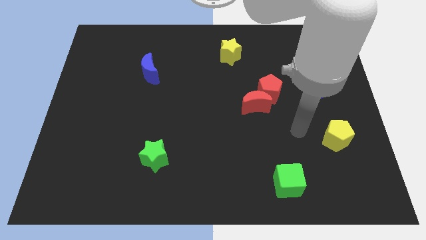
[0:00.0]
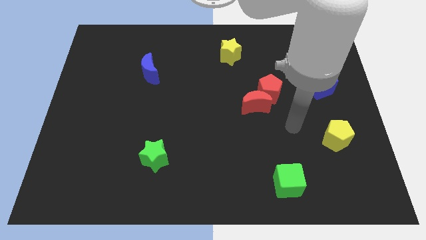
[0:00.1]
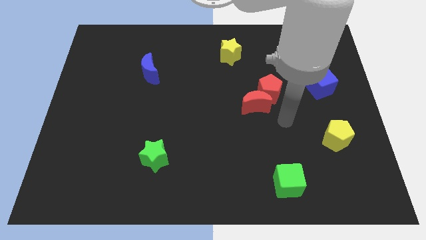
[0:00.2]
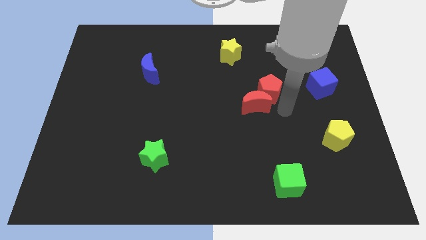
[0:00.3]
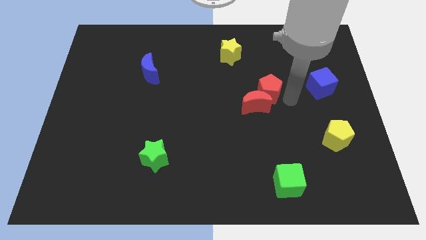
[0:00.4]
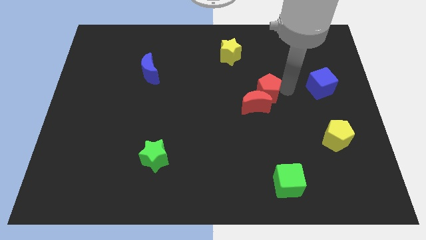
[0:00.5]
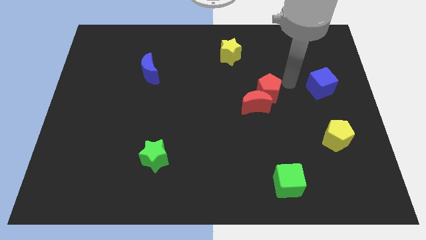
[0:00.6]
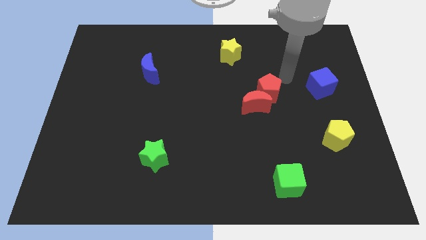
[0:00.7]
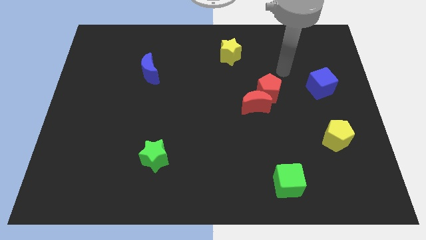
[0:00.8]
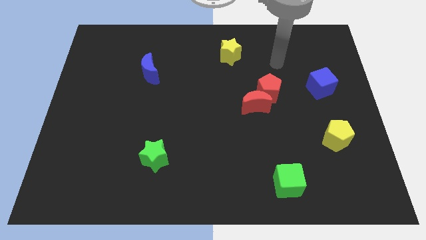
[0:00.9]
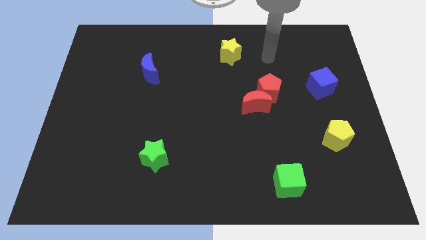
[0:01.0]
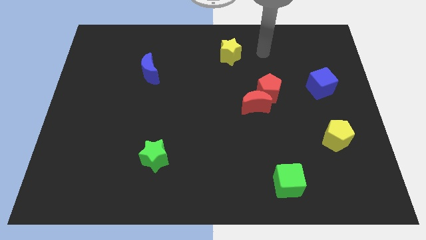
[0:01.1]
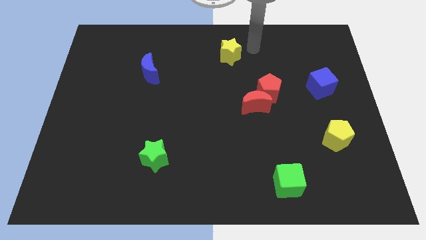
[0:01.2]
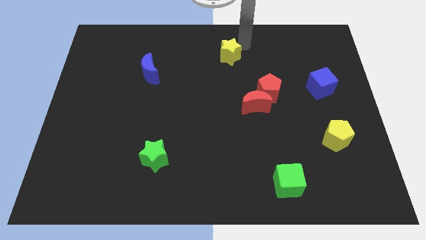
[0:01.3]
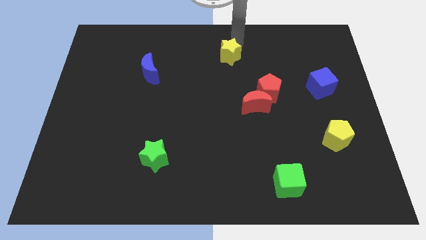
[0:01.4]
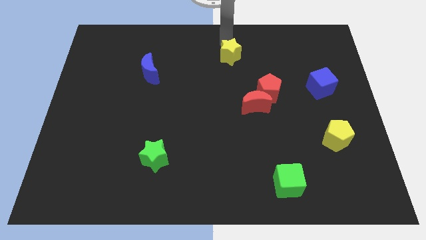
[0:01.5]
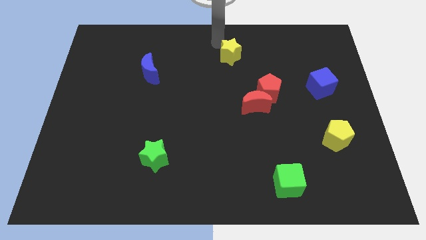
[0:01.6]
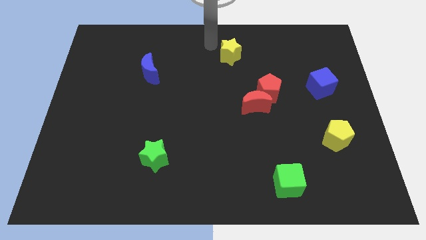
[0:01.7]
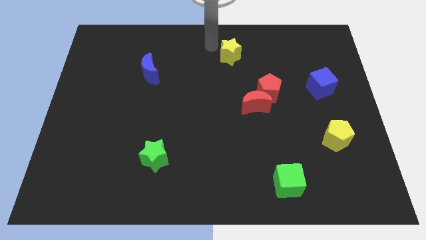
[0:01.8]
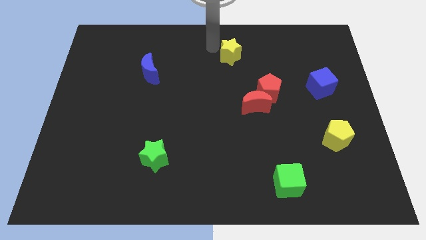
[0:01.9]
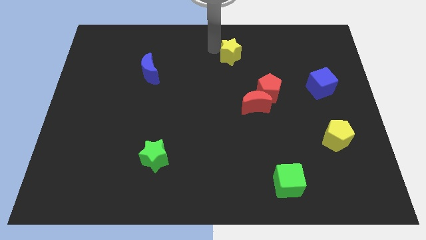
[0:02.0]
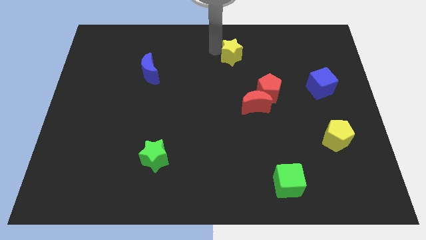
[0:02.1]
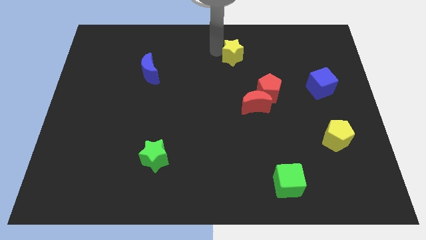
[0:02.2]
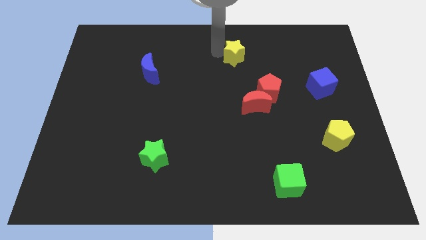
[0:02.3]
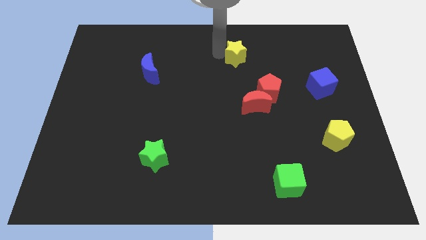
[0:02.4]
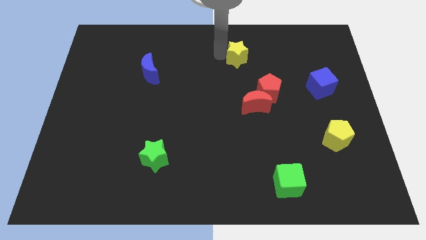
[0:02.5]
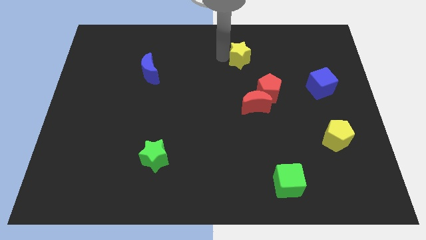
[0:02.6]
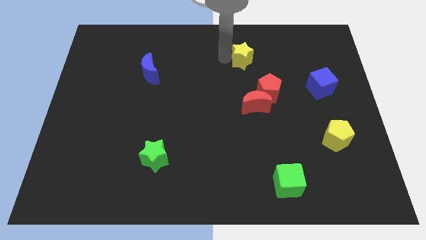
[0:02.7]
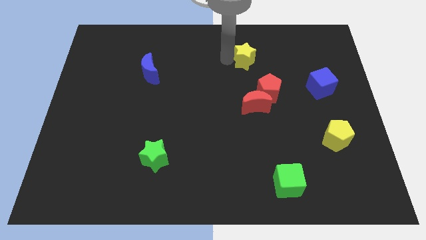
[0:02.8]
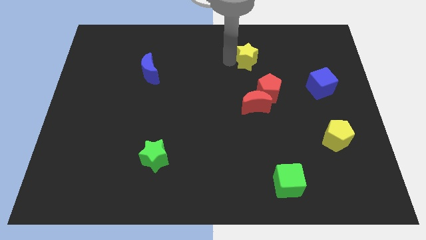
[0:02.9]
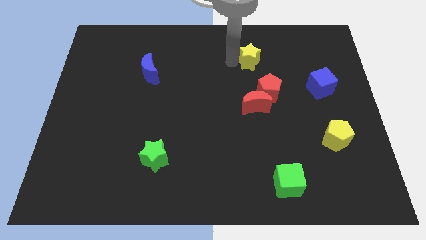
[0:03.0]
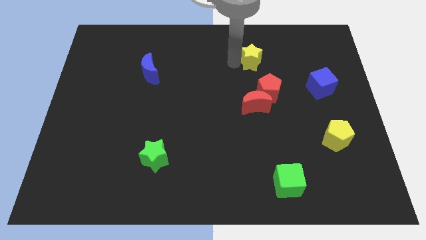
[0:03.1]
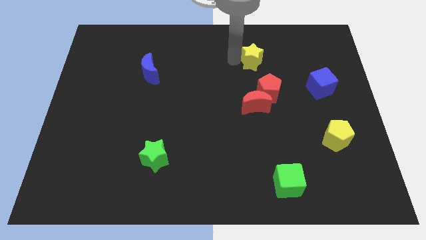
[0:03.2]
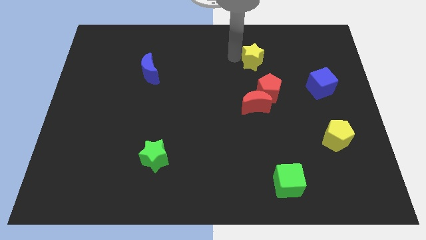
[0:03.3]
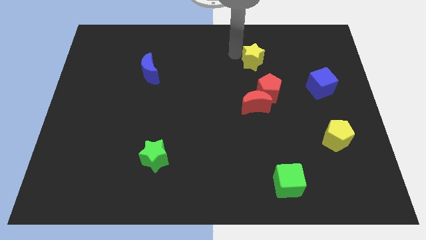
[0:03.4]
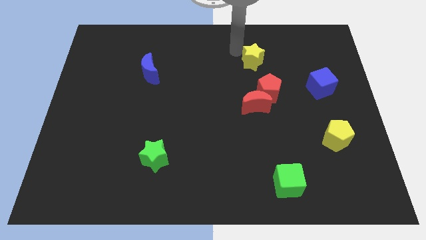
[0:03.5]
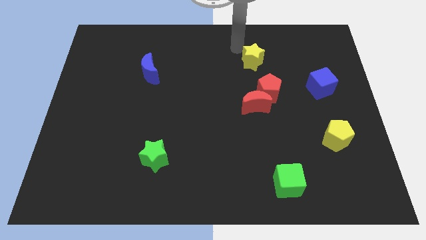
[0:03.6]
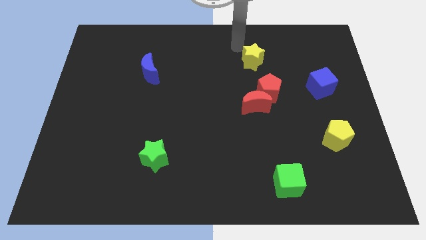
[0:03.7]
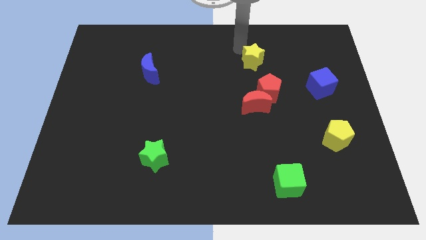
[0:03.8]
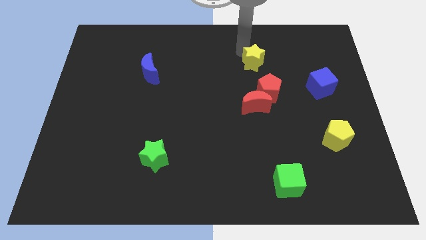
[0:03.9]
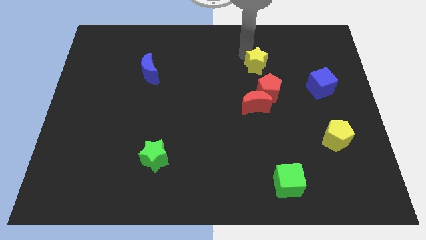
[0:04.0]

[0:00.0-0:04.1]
slightly move the yellow star diagonally downwards and to the right

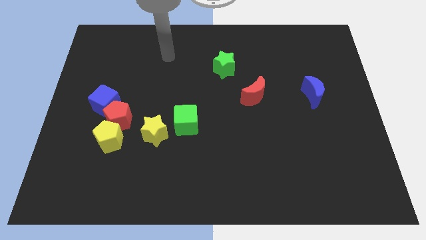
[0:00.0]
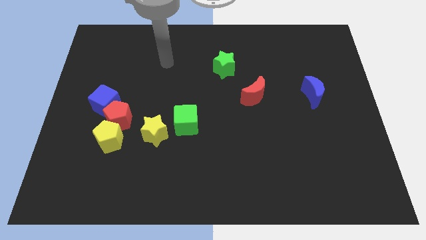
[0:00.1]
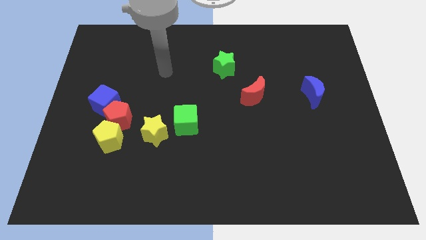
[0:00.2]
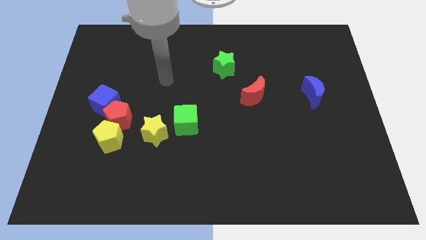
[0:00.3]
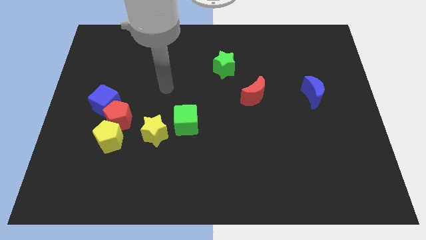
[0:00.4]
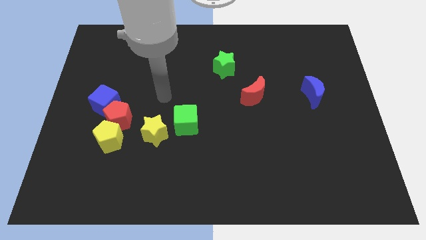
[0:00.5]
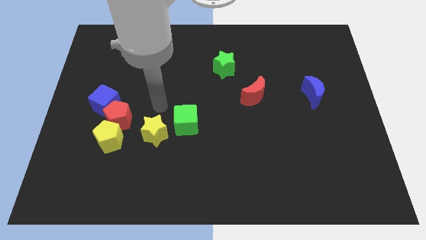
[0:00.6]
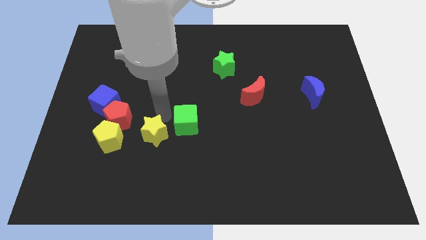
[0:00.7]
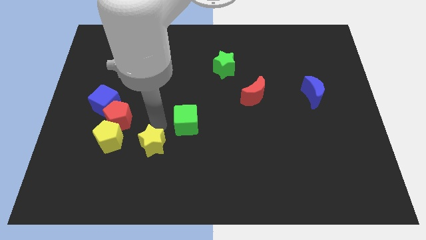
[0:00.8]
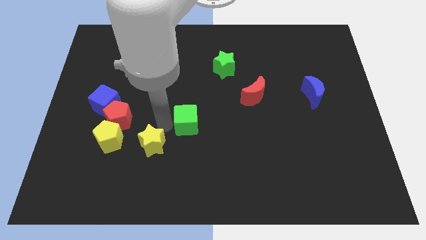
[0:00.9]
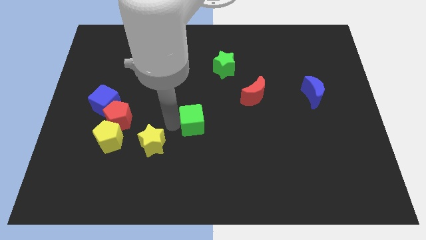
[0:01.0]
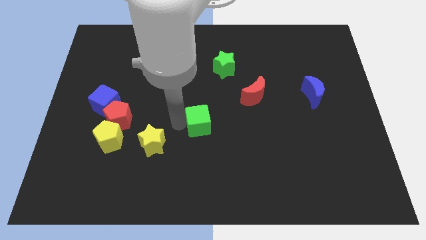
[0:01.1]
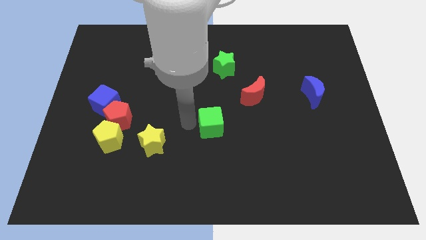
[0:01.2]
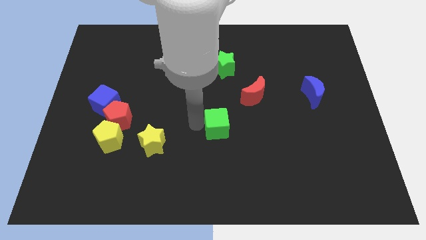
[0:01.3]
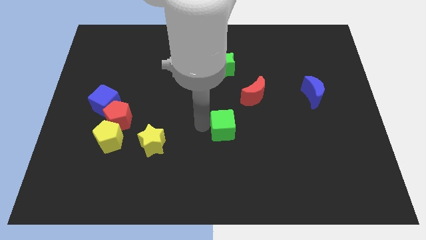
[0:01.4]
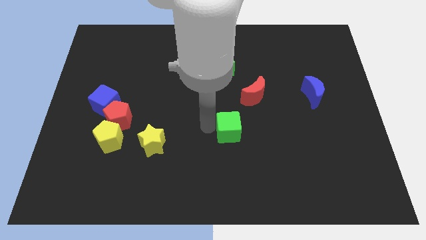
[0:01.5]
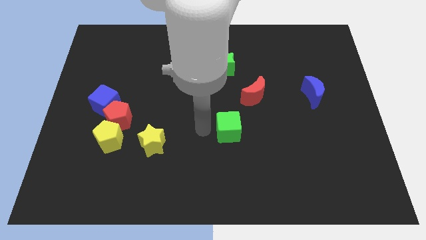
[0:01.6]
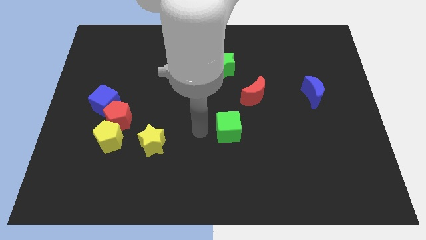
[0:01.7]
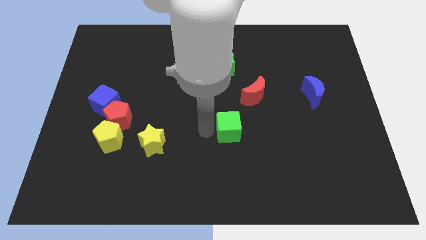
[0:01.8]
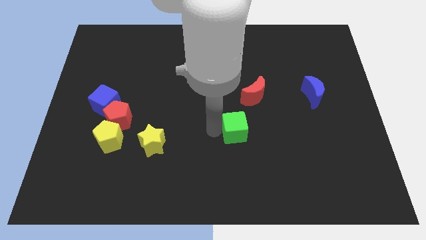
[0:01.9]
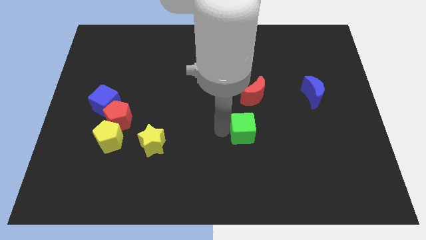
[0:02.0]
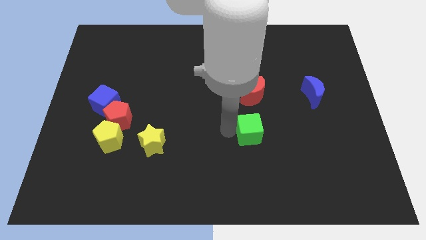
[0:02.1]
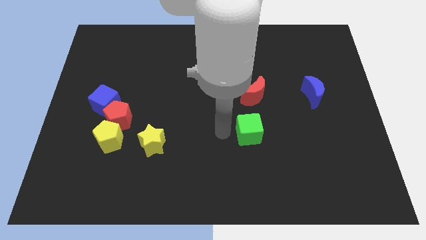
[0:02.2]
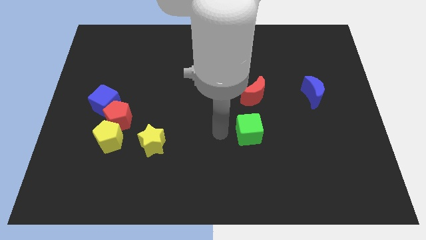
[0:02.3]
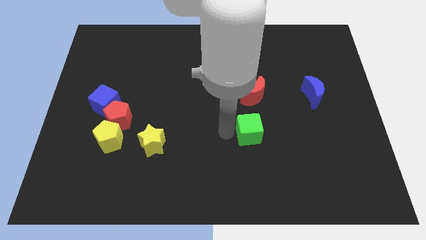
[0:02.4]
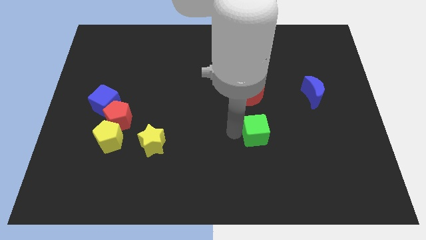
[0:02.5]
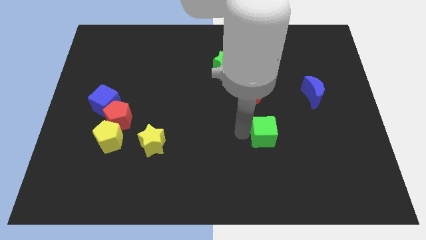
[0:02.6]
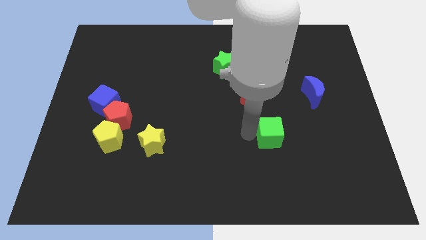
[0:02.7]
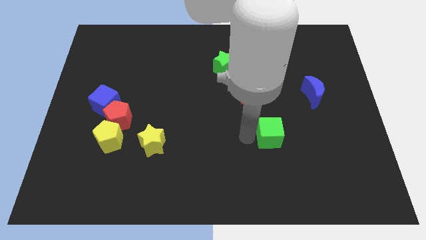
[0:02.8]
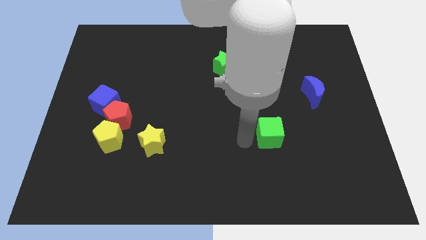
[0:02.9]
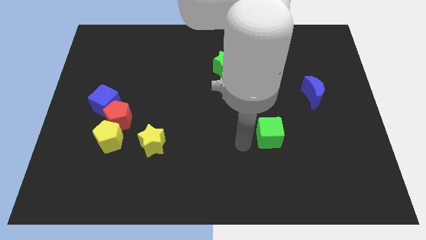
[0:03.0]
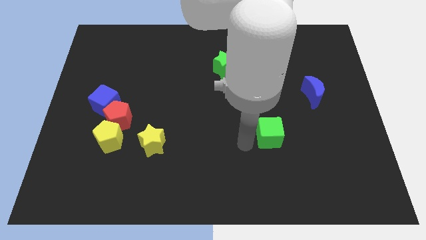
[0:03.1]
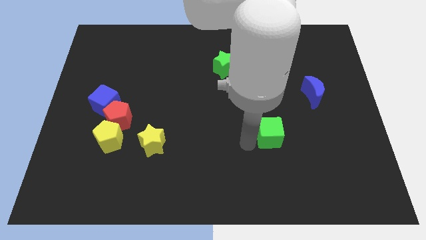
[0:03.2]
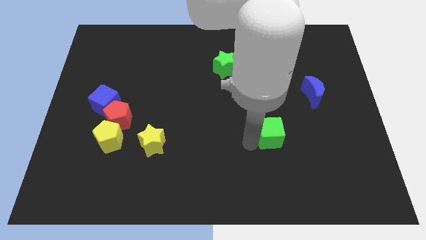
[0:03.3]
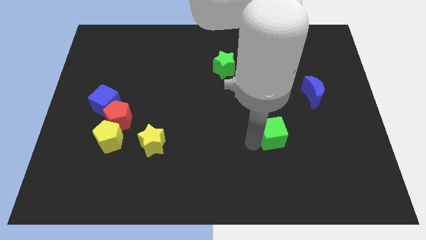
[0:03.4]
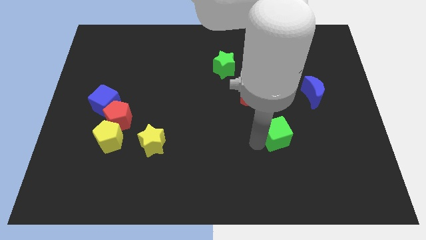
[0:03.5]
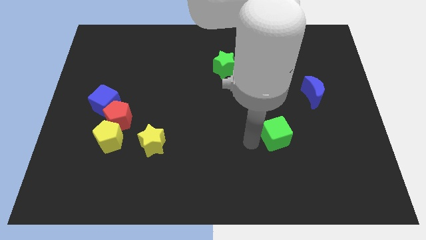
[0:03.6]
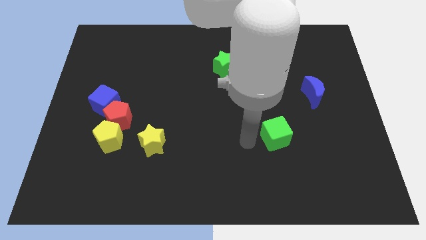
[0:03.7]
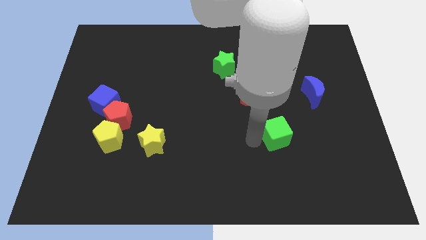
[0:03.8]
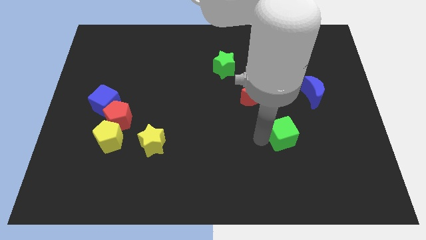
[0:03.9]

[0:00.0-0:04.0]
slide the green cube to the right

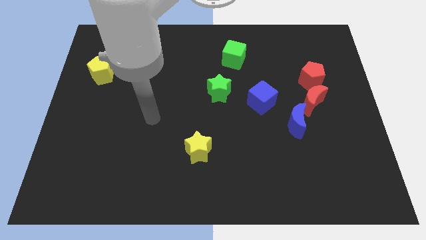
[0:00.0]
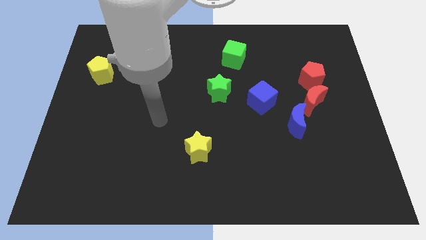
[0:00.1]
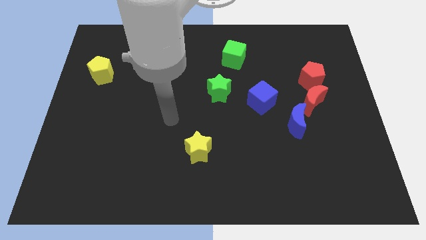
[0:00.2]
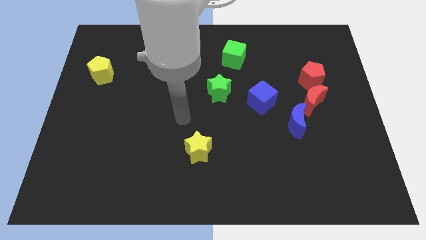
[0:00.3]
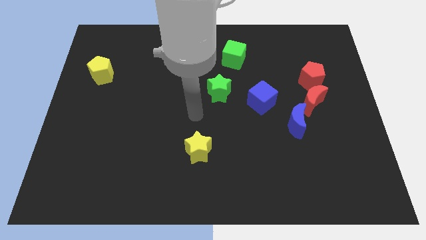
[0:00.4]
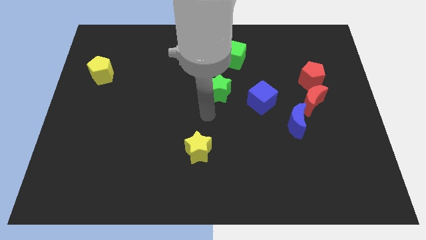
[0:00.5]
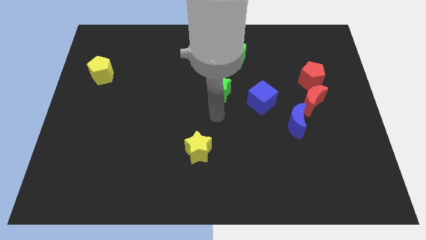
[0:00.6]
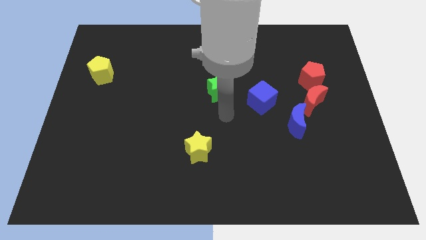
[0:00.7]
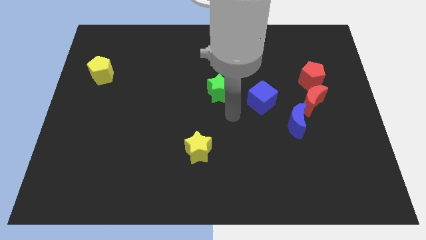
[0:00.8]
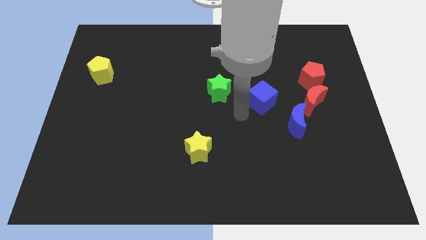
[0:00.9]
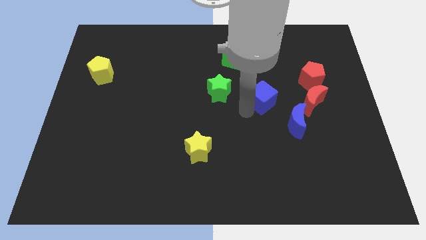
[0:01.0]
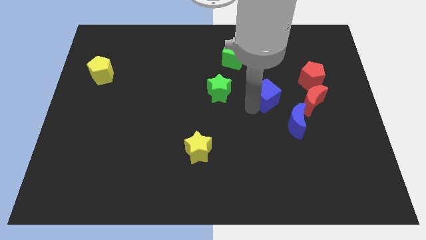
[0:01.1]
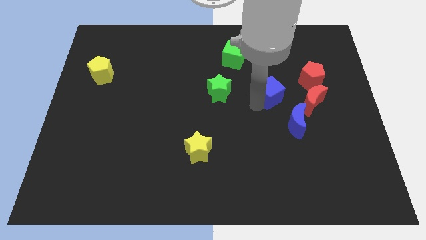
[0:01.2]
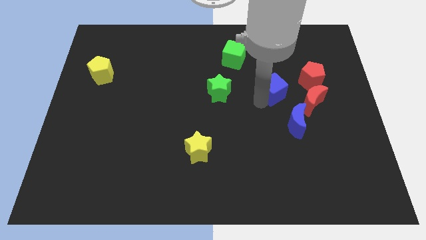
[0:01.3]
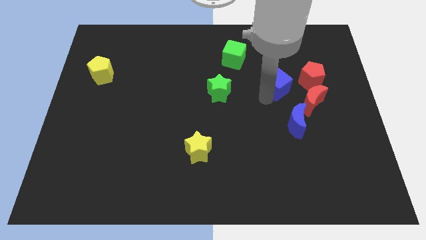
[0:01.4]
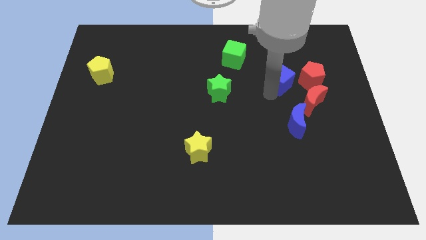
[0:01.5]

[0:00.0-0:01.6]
push the blue cube up and to the right a bit
